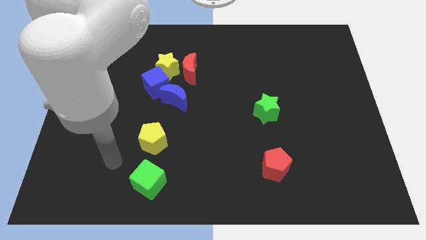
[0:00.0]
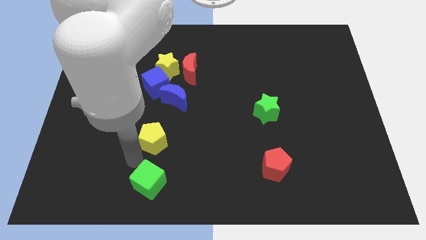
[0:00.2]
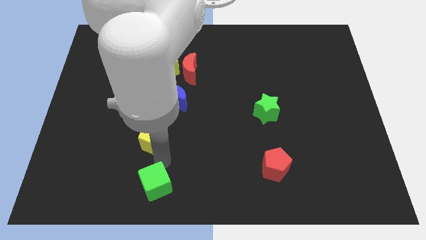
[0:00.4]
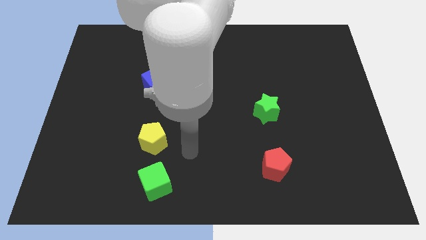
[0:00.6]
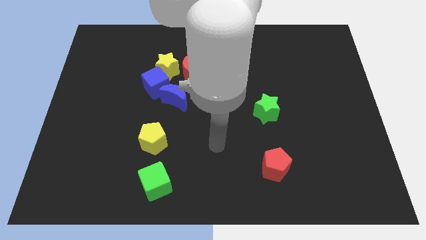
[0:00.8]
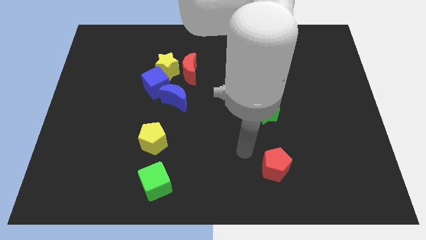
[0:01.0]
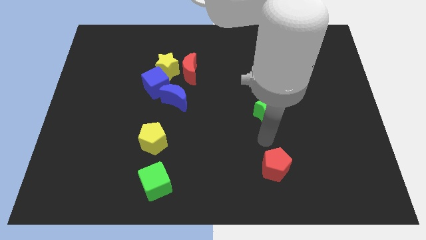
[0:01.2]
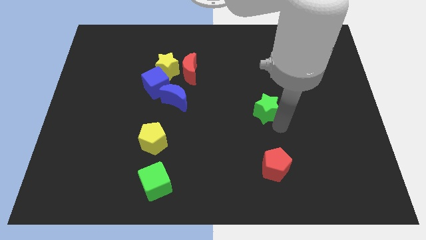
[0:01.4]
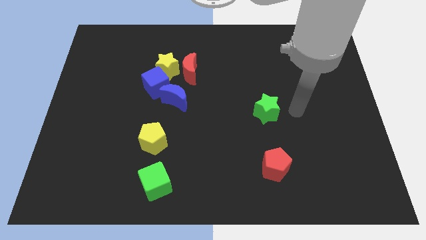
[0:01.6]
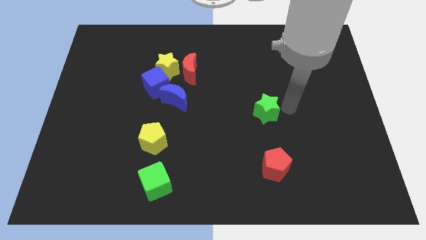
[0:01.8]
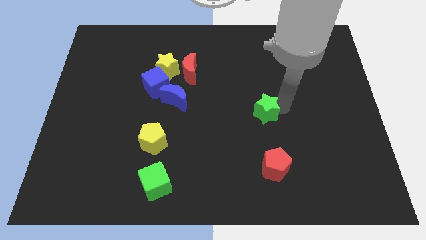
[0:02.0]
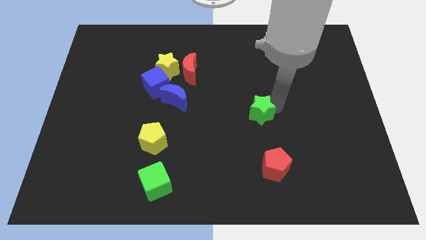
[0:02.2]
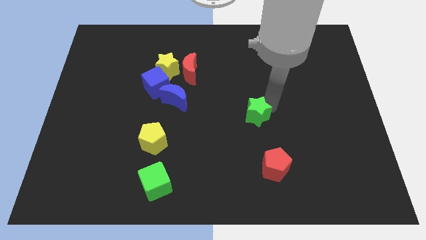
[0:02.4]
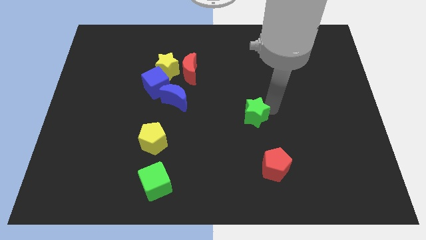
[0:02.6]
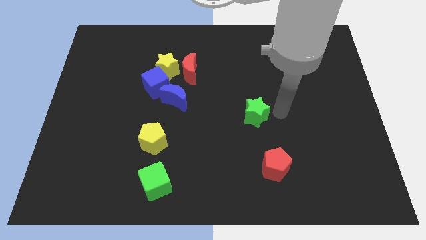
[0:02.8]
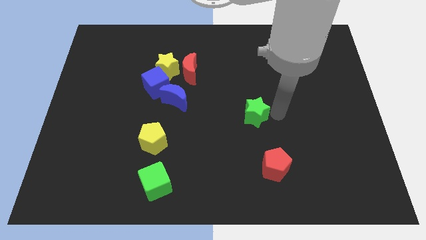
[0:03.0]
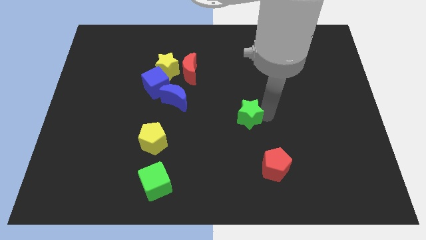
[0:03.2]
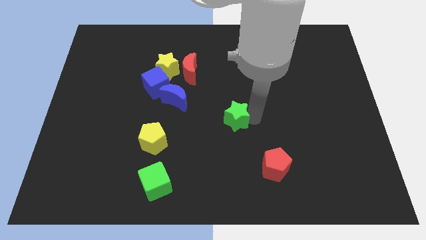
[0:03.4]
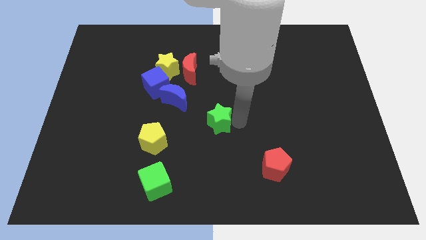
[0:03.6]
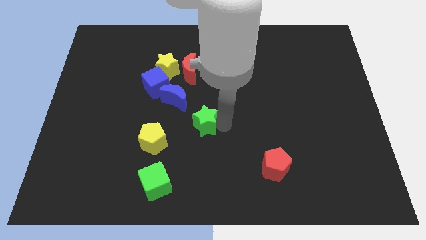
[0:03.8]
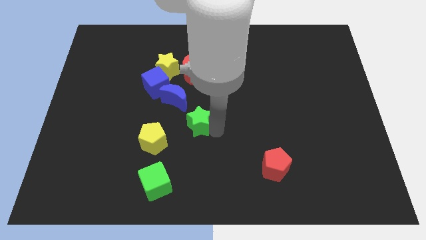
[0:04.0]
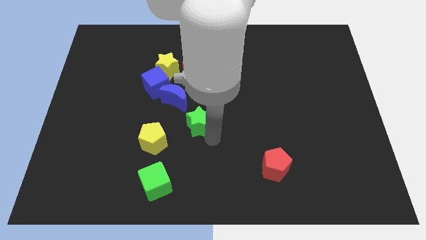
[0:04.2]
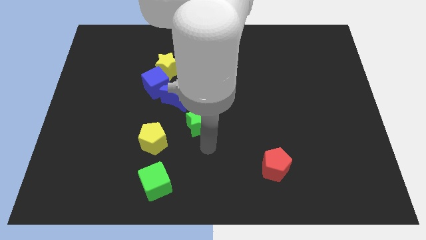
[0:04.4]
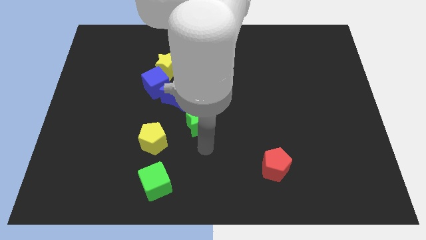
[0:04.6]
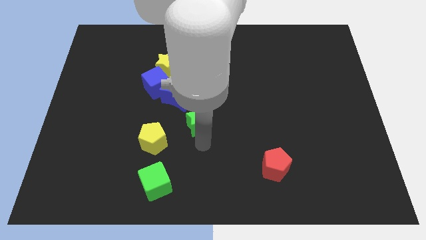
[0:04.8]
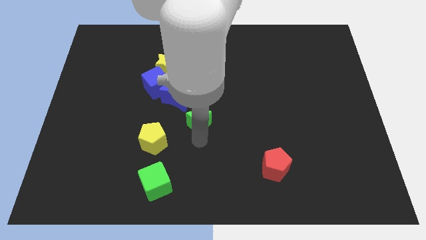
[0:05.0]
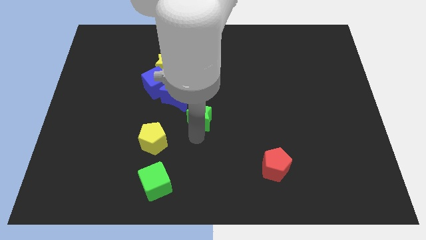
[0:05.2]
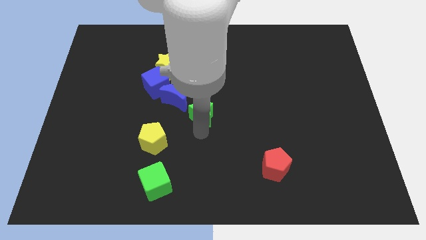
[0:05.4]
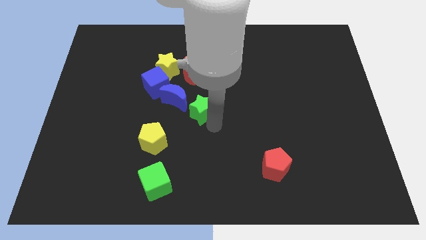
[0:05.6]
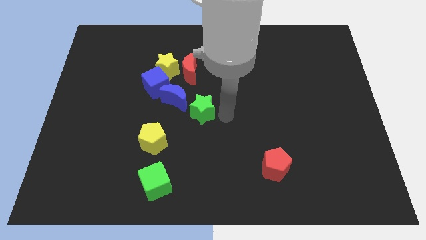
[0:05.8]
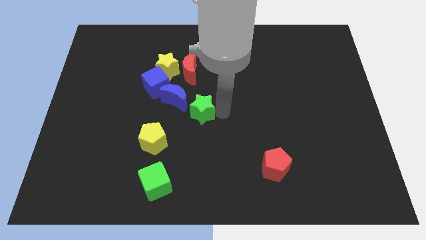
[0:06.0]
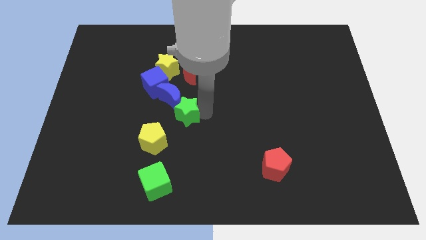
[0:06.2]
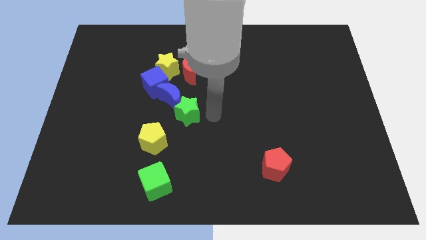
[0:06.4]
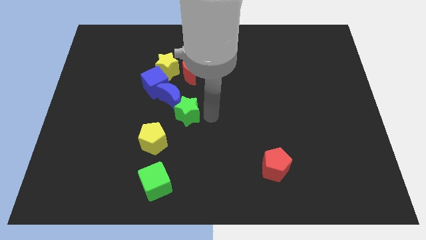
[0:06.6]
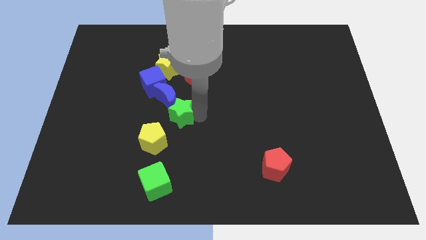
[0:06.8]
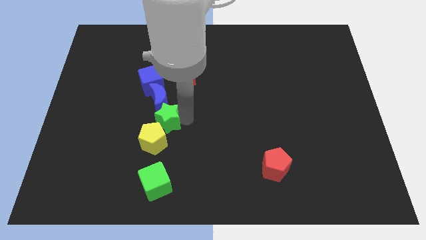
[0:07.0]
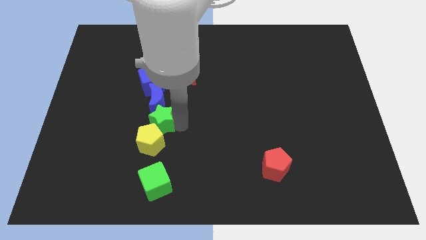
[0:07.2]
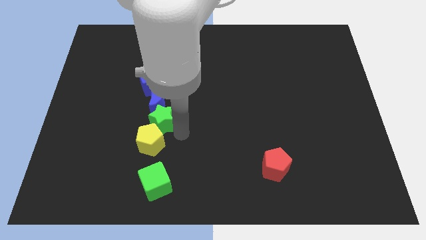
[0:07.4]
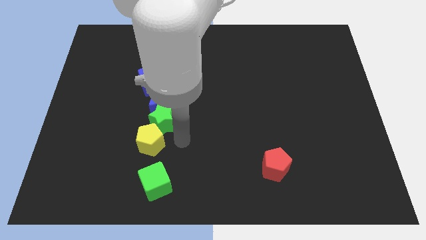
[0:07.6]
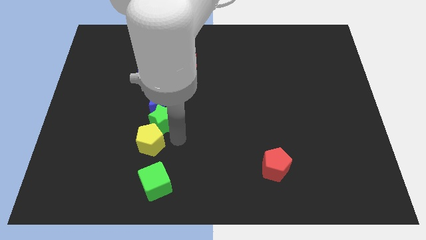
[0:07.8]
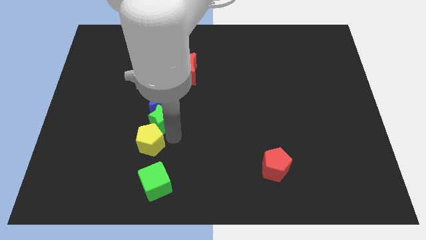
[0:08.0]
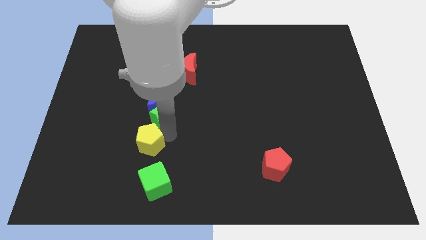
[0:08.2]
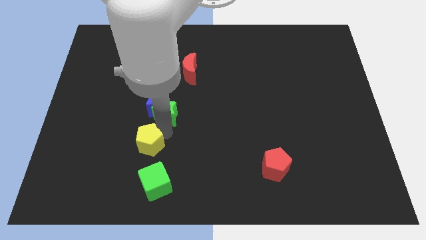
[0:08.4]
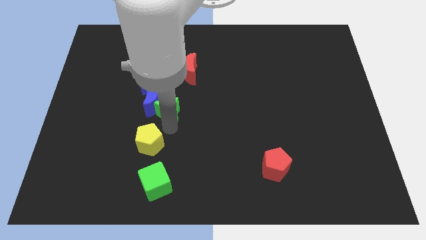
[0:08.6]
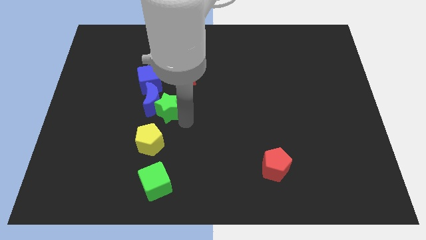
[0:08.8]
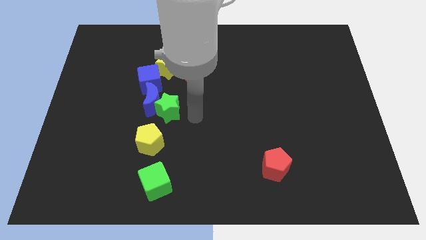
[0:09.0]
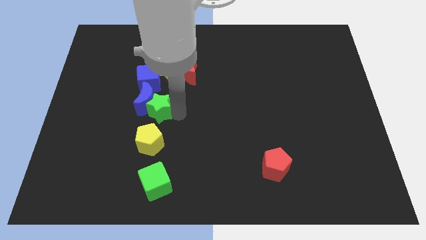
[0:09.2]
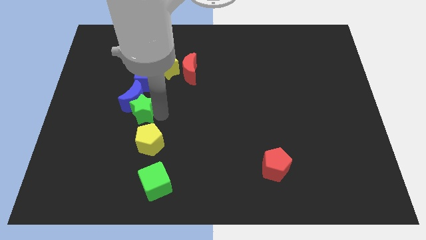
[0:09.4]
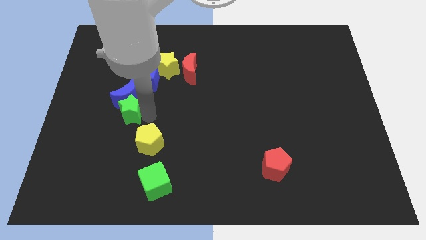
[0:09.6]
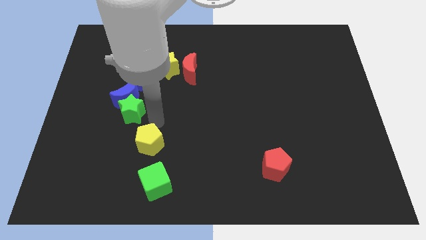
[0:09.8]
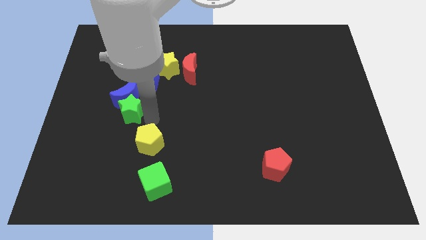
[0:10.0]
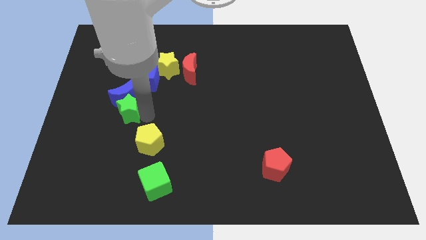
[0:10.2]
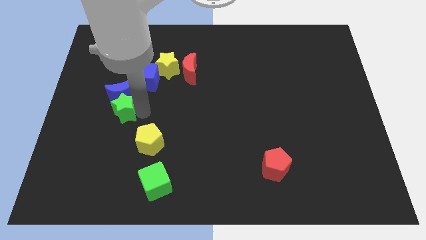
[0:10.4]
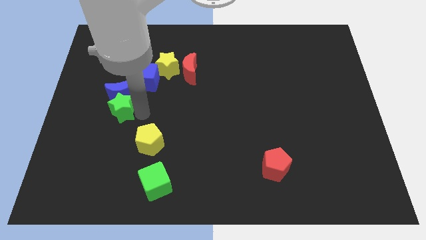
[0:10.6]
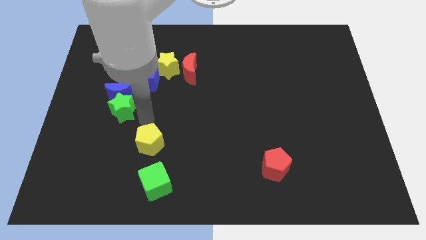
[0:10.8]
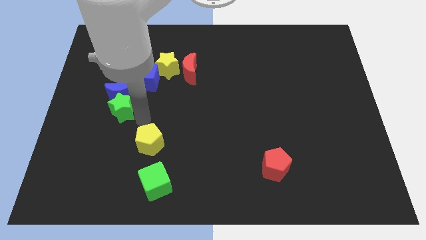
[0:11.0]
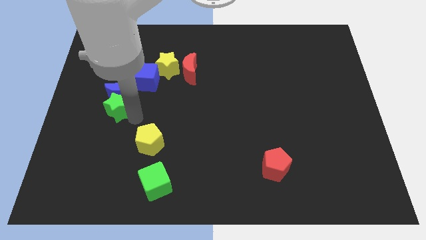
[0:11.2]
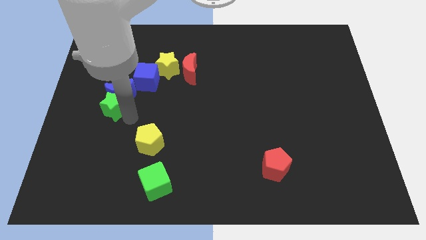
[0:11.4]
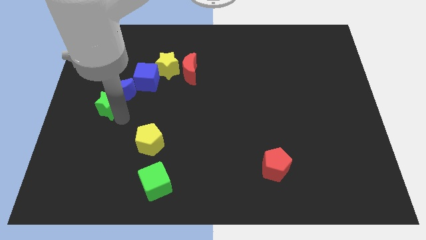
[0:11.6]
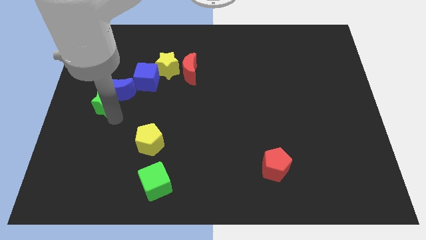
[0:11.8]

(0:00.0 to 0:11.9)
put the green star to the left side
